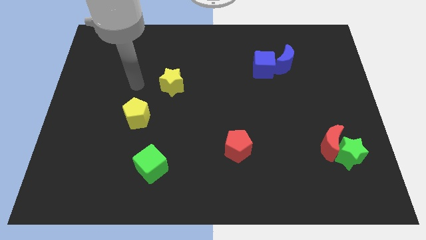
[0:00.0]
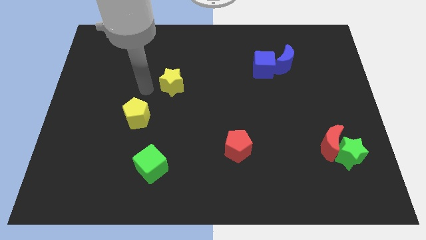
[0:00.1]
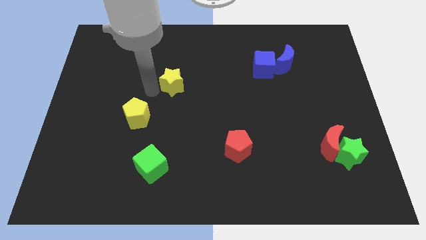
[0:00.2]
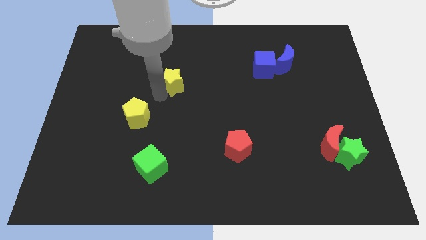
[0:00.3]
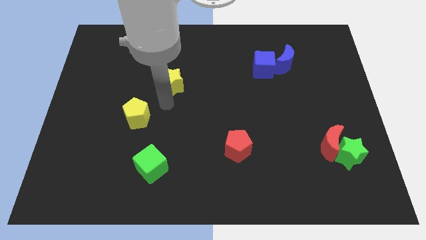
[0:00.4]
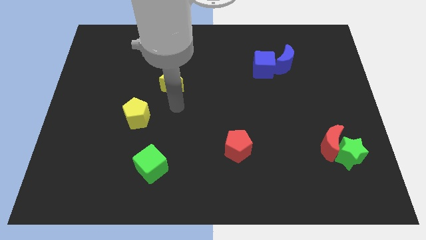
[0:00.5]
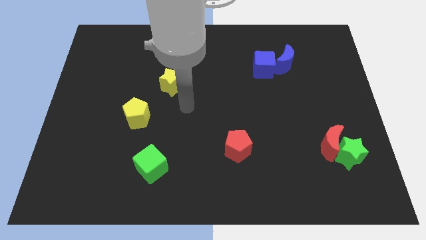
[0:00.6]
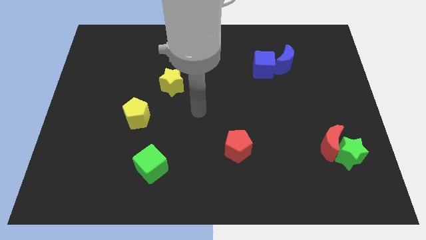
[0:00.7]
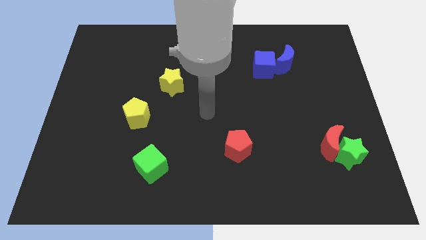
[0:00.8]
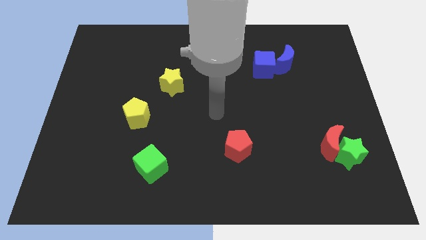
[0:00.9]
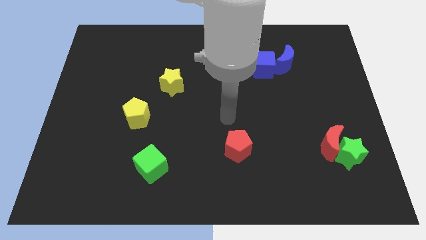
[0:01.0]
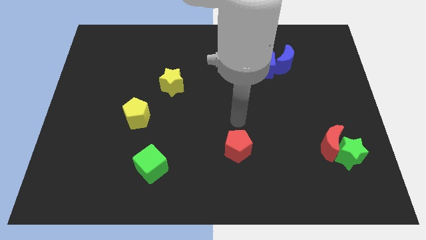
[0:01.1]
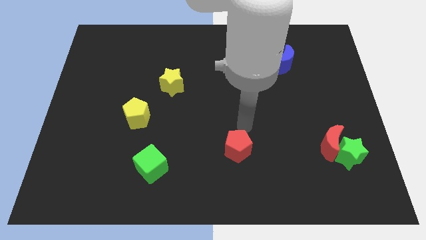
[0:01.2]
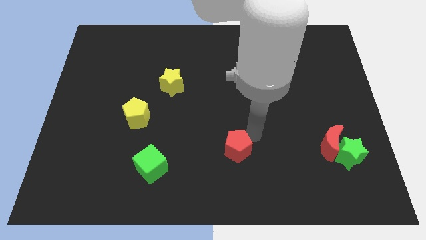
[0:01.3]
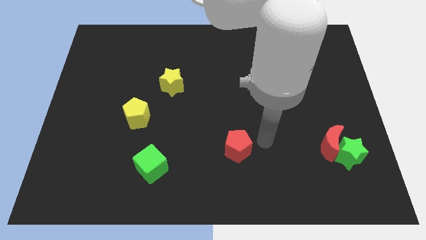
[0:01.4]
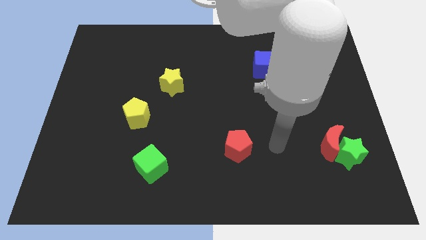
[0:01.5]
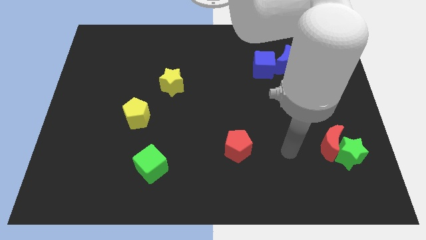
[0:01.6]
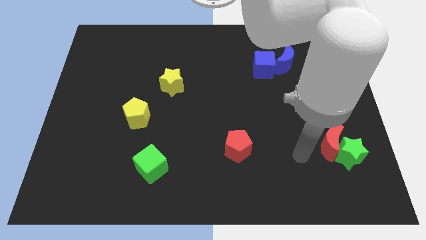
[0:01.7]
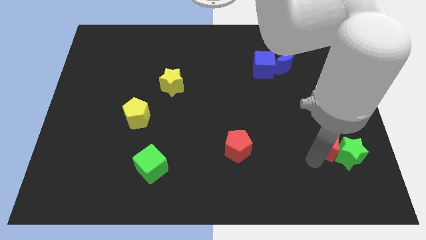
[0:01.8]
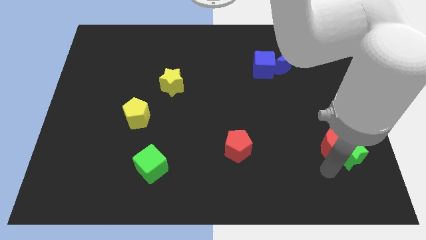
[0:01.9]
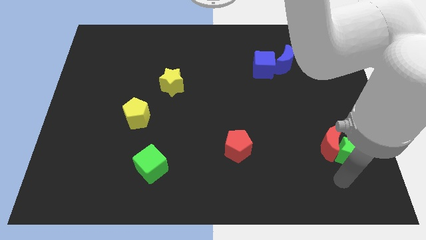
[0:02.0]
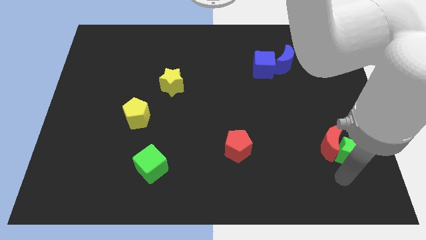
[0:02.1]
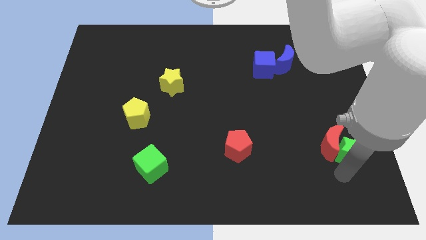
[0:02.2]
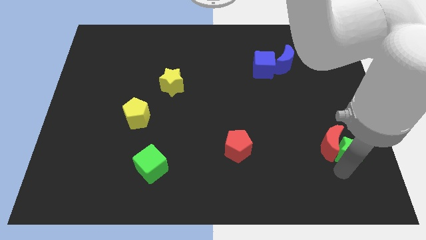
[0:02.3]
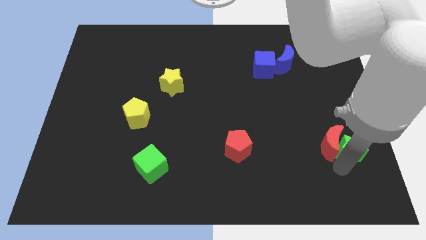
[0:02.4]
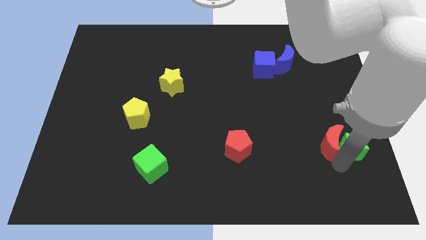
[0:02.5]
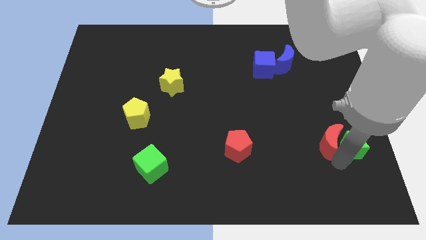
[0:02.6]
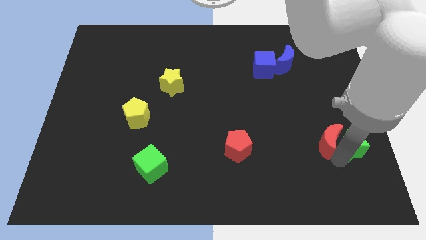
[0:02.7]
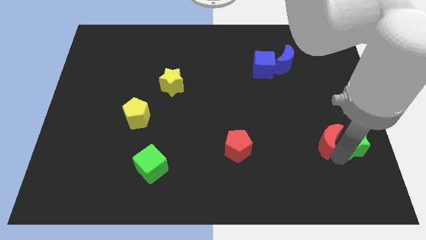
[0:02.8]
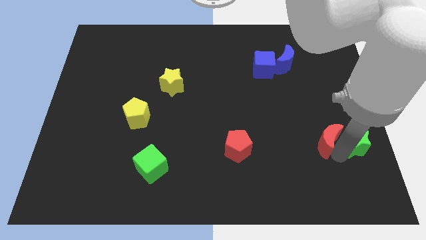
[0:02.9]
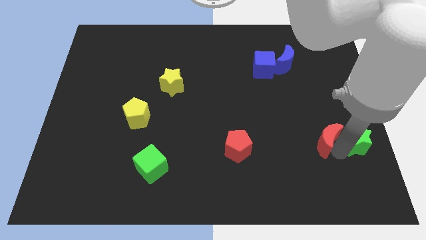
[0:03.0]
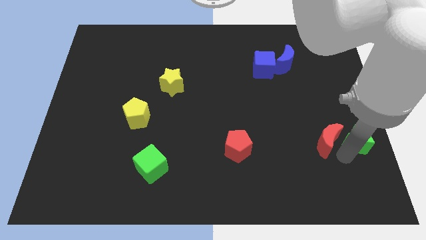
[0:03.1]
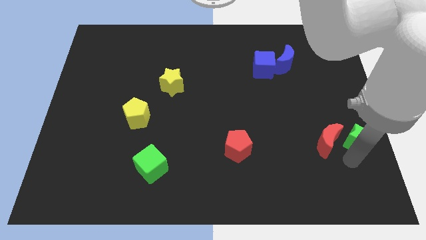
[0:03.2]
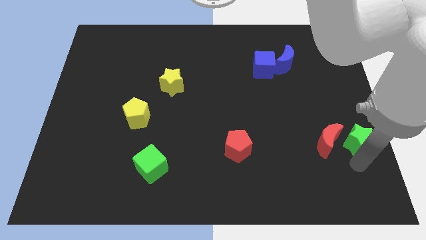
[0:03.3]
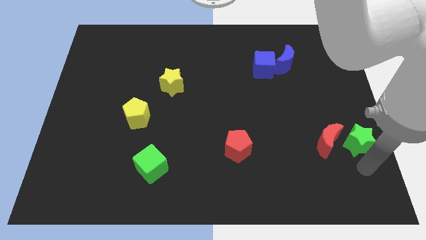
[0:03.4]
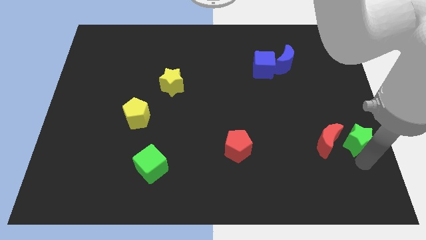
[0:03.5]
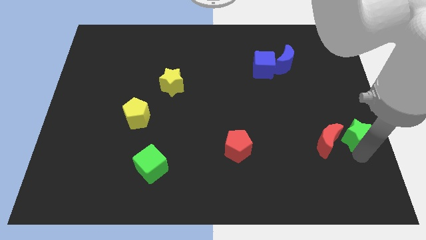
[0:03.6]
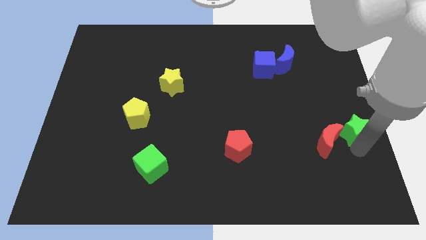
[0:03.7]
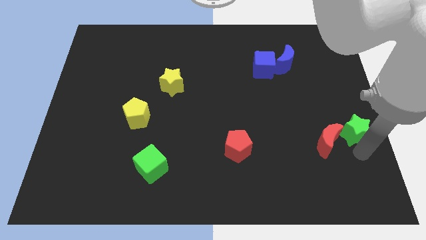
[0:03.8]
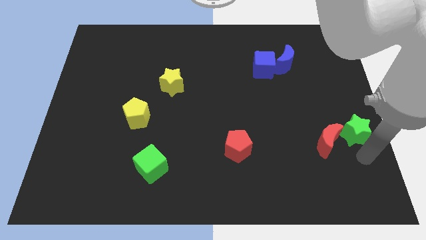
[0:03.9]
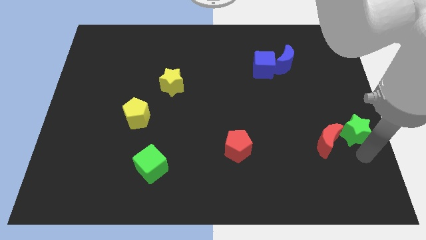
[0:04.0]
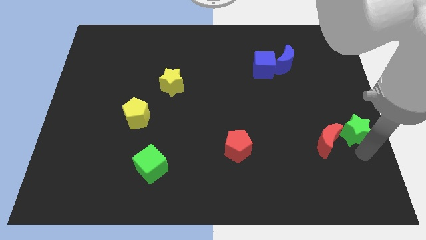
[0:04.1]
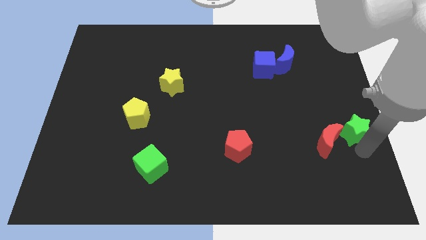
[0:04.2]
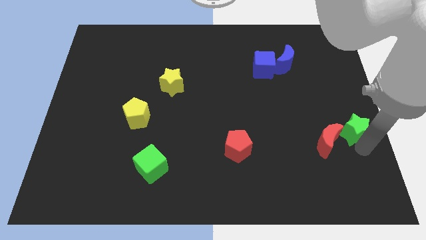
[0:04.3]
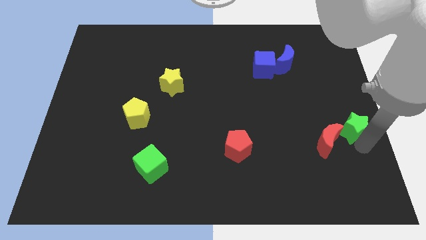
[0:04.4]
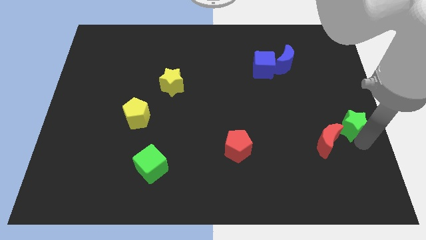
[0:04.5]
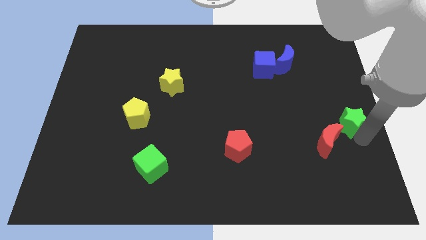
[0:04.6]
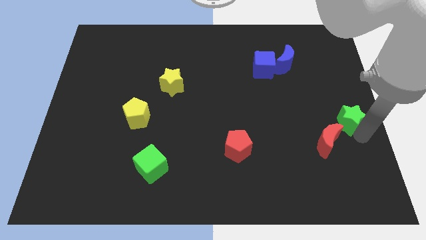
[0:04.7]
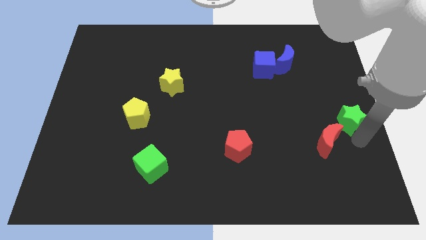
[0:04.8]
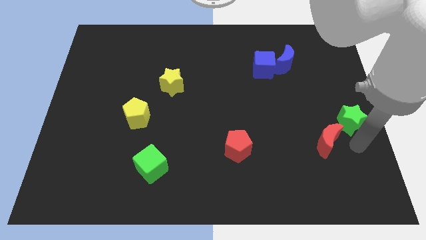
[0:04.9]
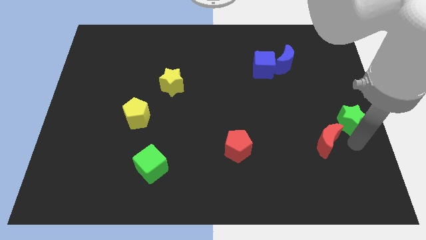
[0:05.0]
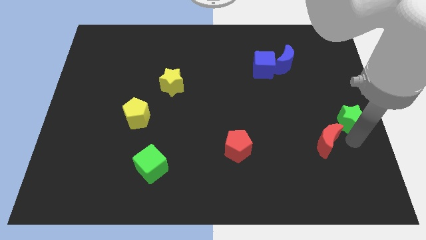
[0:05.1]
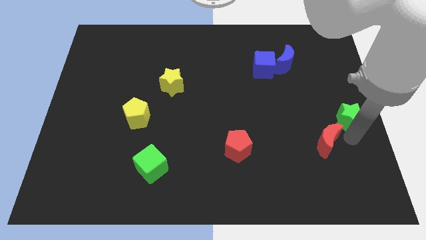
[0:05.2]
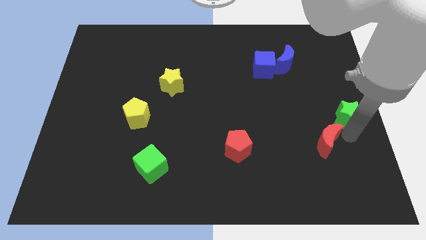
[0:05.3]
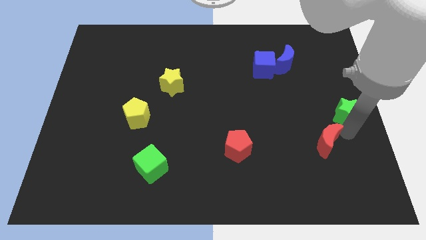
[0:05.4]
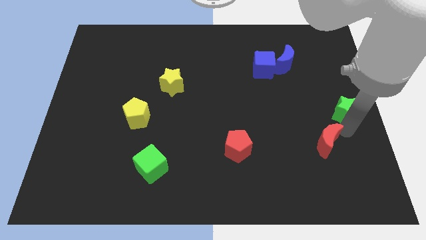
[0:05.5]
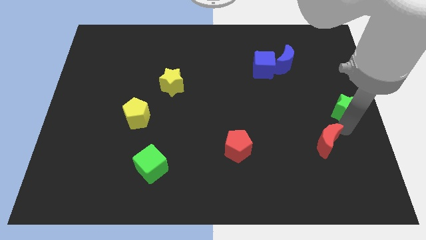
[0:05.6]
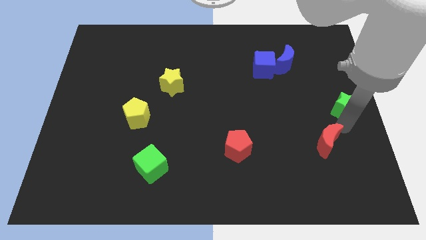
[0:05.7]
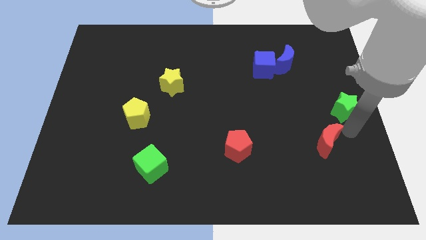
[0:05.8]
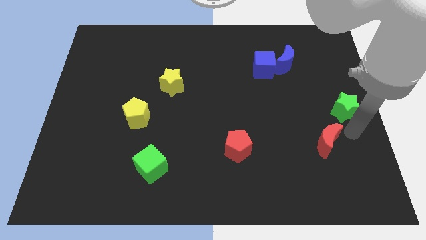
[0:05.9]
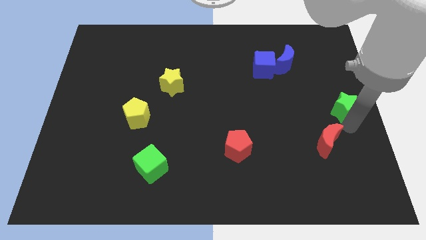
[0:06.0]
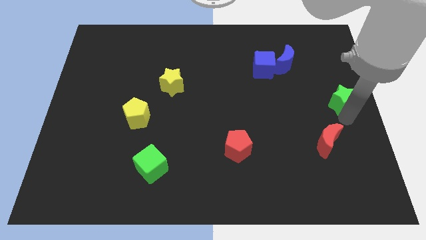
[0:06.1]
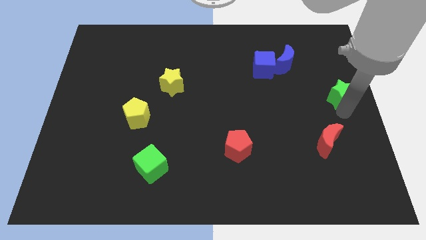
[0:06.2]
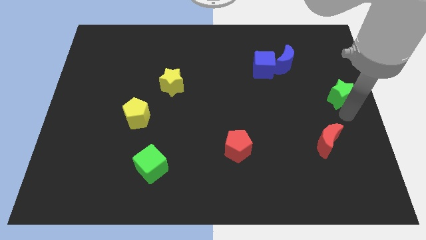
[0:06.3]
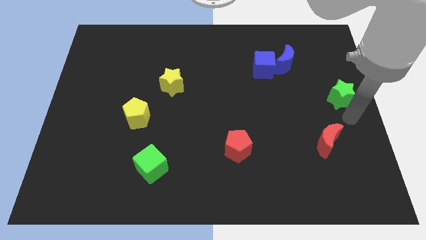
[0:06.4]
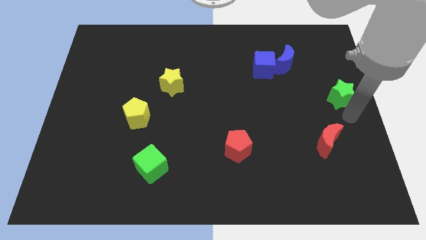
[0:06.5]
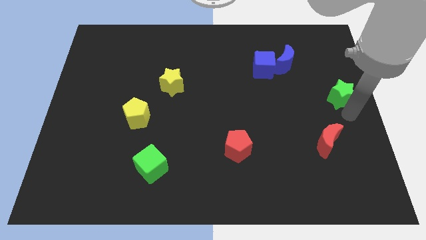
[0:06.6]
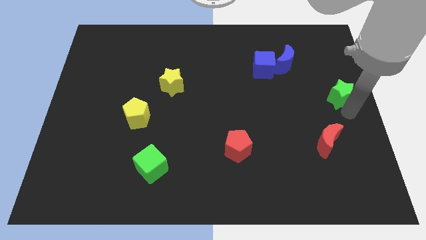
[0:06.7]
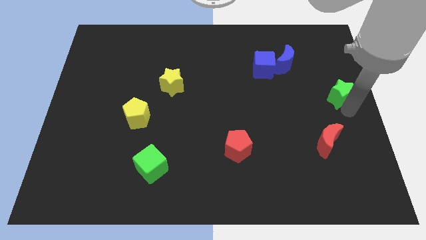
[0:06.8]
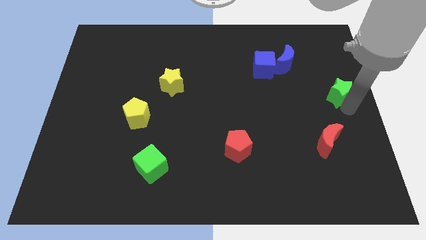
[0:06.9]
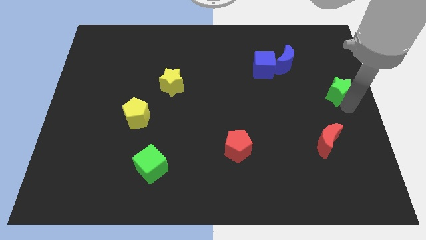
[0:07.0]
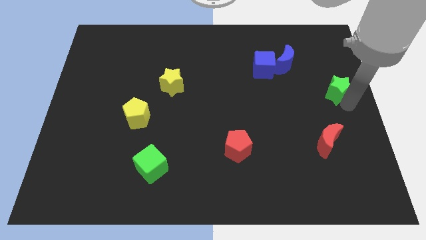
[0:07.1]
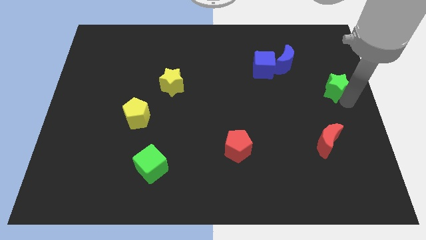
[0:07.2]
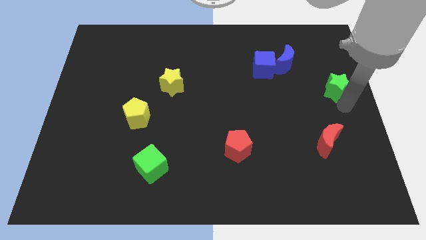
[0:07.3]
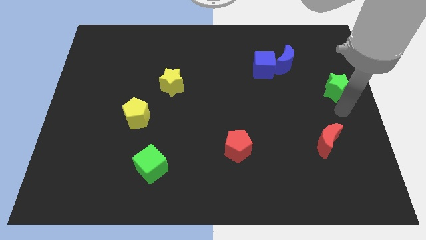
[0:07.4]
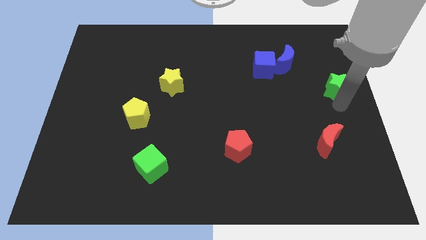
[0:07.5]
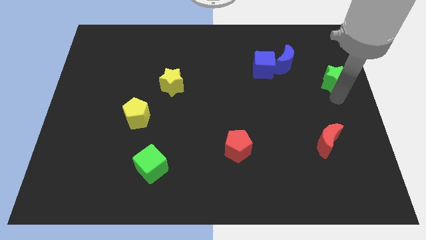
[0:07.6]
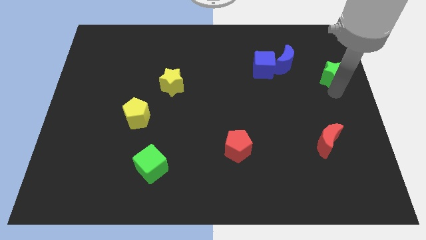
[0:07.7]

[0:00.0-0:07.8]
put the green star just right of the blue moon
